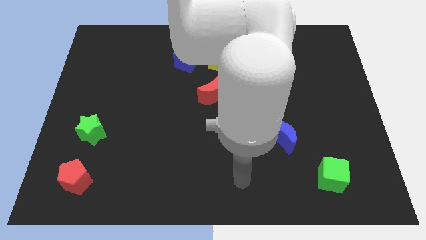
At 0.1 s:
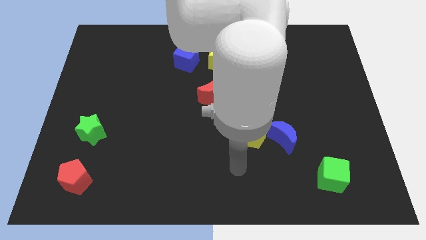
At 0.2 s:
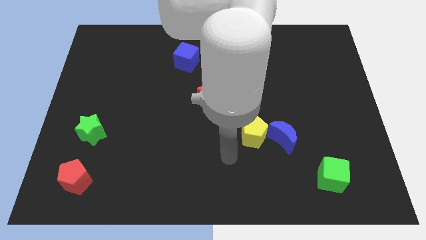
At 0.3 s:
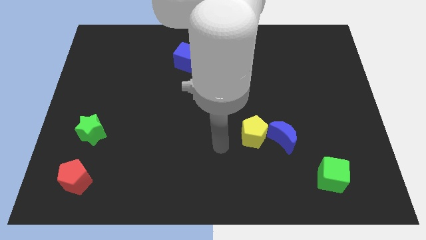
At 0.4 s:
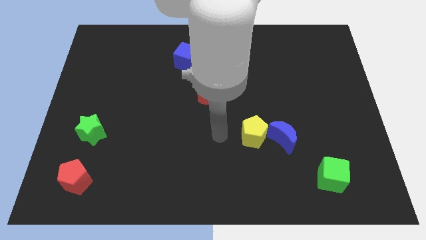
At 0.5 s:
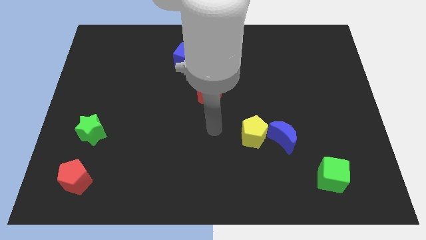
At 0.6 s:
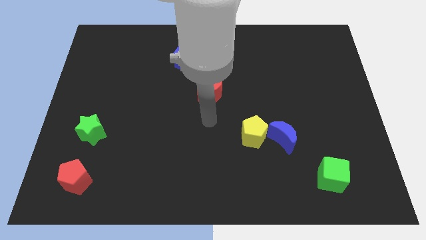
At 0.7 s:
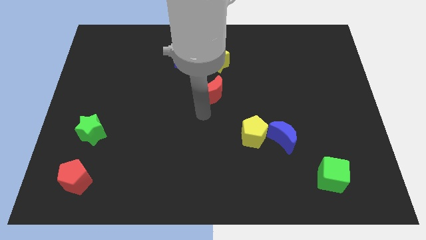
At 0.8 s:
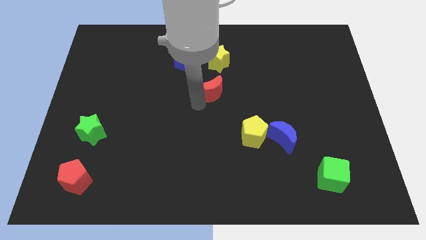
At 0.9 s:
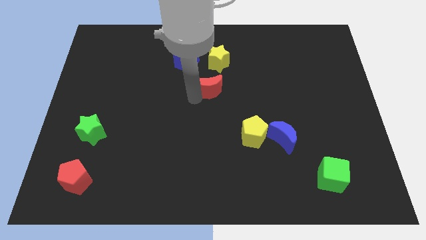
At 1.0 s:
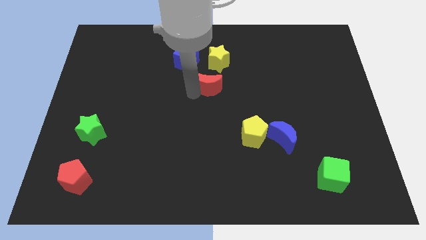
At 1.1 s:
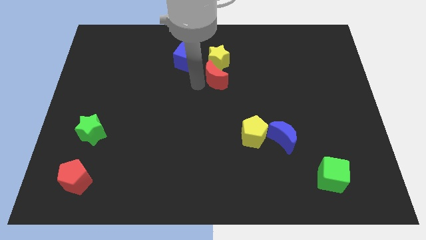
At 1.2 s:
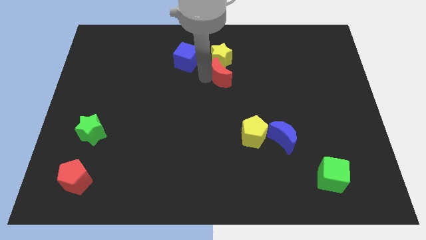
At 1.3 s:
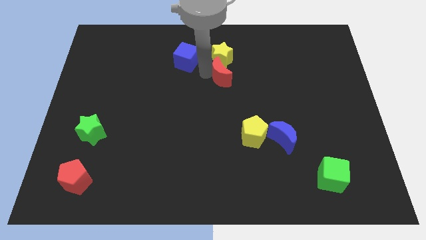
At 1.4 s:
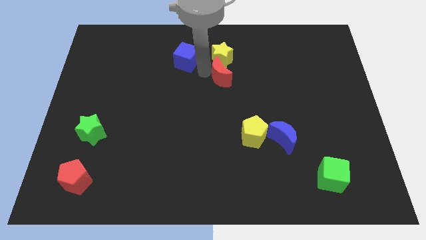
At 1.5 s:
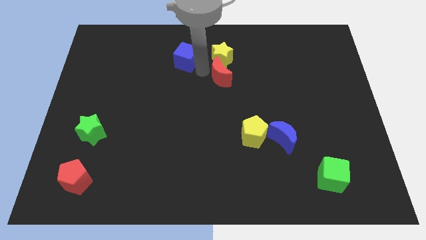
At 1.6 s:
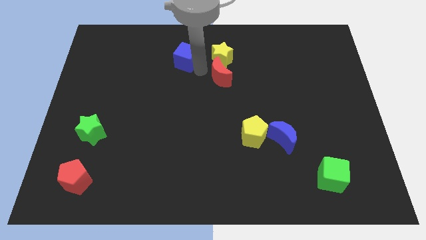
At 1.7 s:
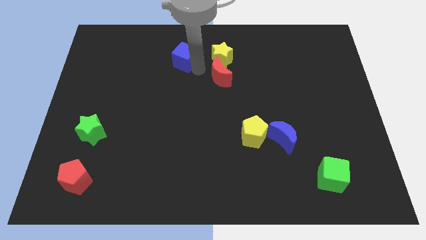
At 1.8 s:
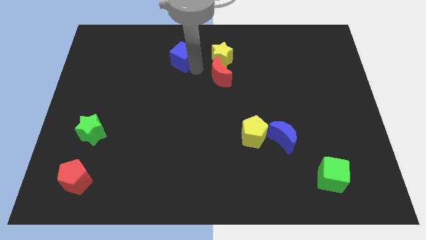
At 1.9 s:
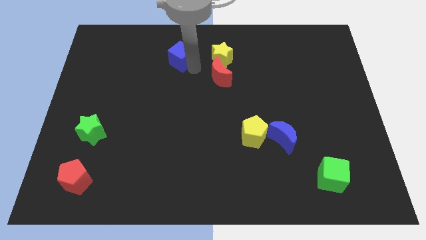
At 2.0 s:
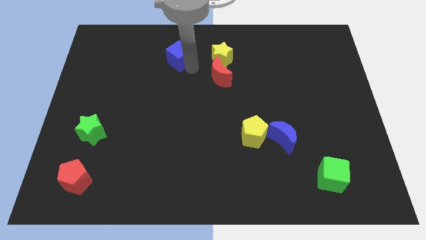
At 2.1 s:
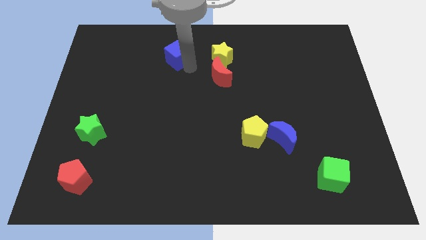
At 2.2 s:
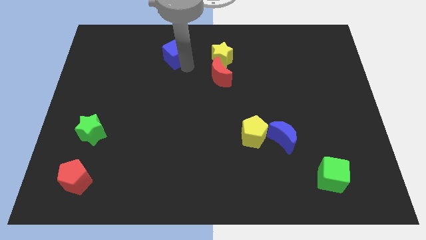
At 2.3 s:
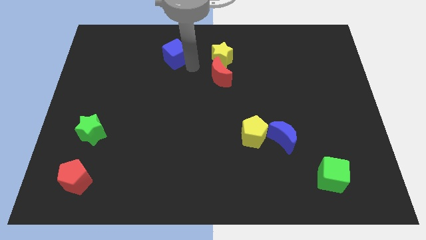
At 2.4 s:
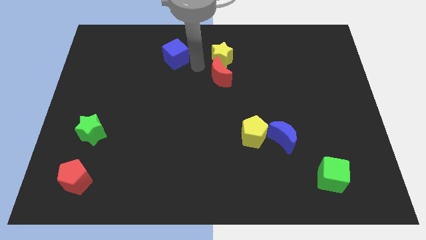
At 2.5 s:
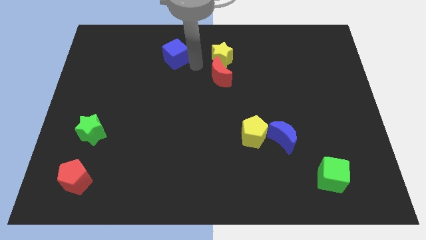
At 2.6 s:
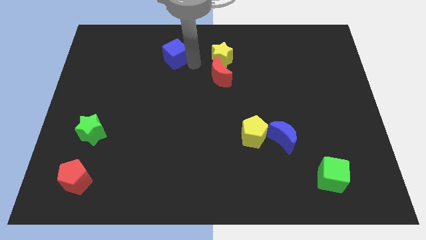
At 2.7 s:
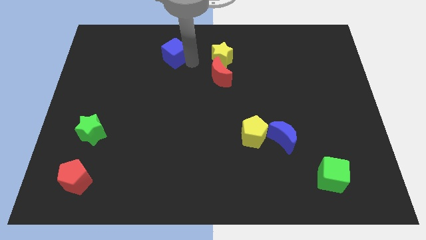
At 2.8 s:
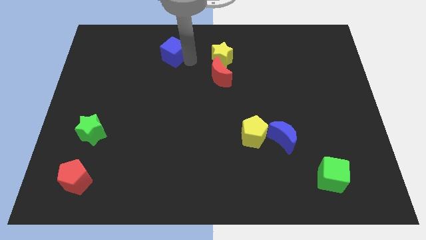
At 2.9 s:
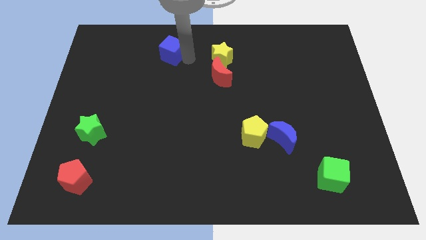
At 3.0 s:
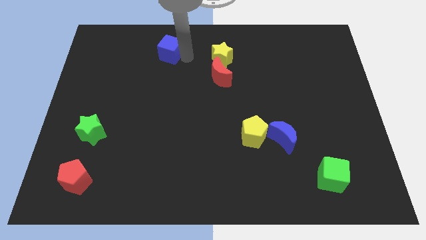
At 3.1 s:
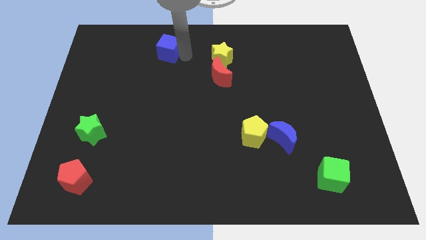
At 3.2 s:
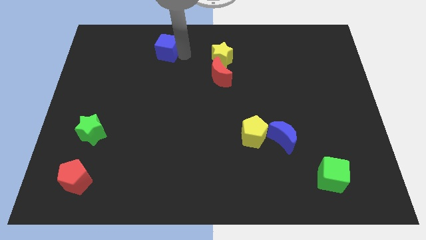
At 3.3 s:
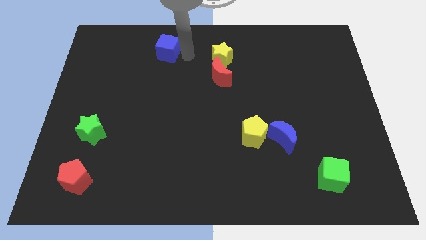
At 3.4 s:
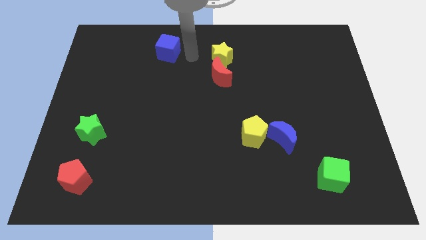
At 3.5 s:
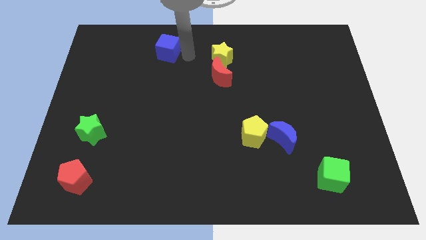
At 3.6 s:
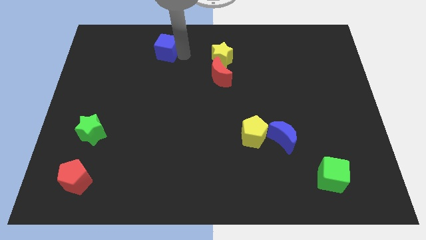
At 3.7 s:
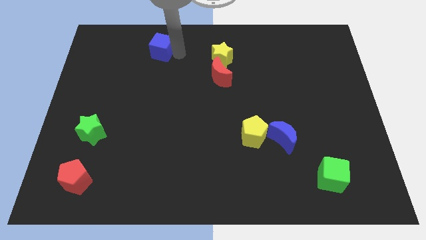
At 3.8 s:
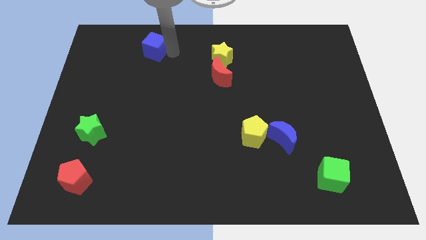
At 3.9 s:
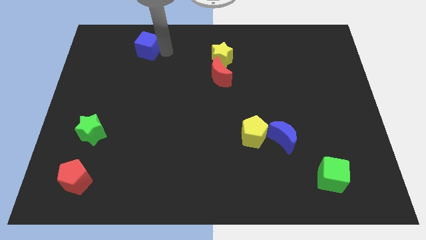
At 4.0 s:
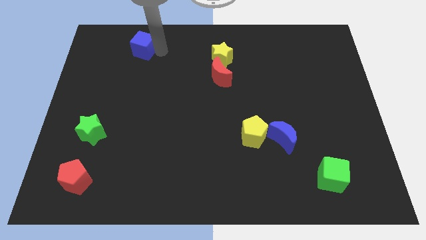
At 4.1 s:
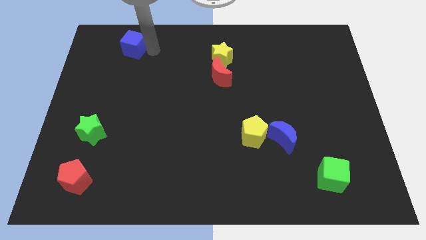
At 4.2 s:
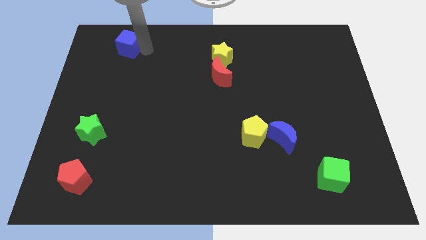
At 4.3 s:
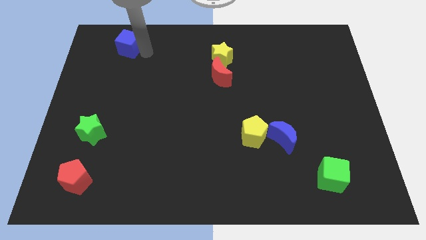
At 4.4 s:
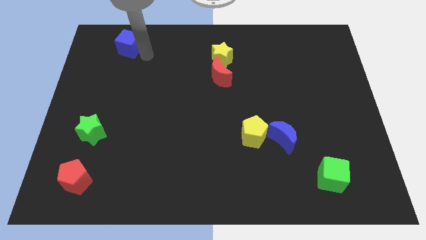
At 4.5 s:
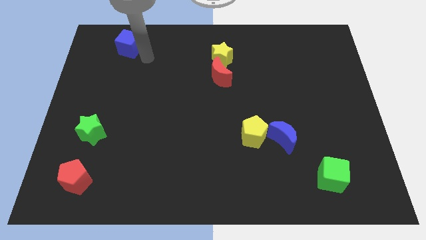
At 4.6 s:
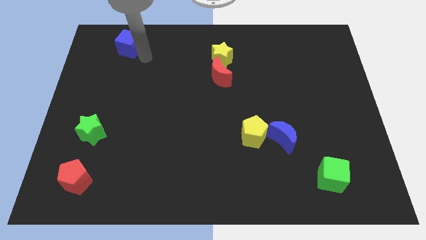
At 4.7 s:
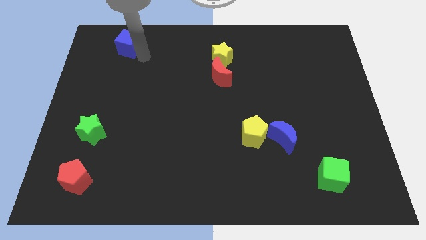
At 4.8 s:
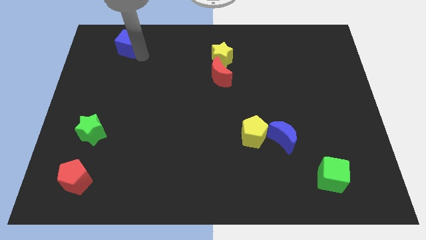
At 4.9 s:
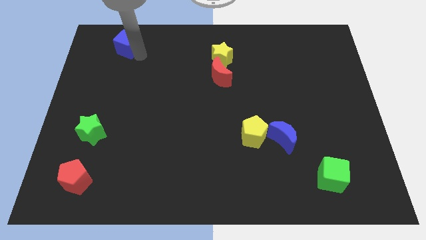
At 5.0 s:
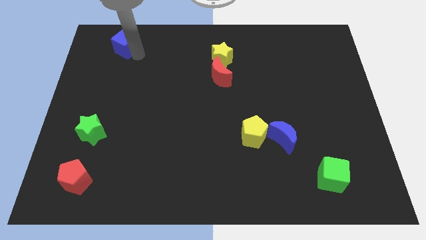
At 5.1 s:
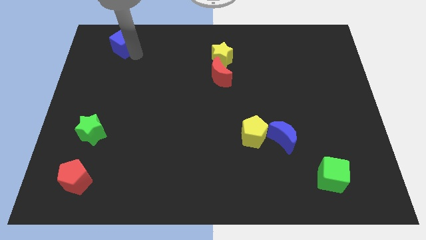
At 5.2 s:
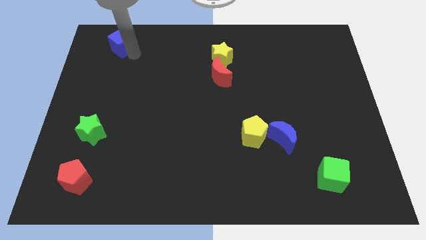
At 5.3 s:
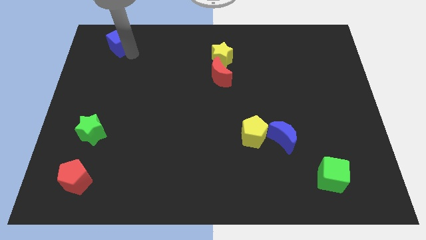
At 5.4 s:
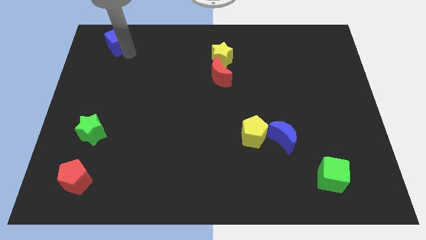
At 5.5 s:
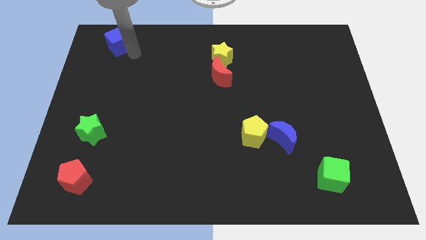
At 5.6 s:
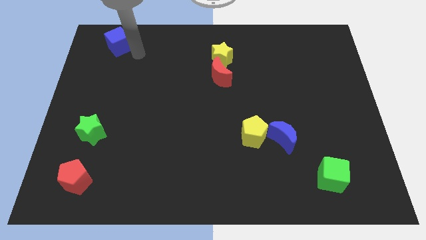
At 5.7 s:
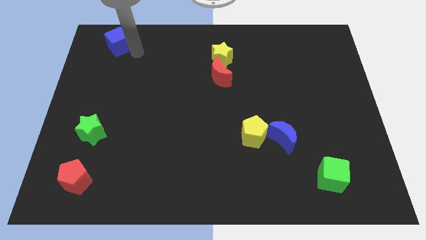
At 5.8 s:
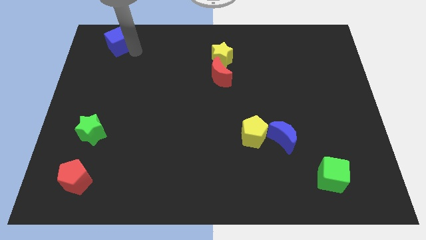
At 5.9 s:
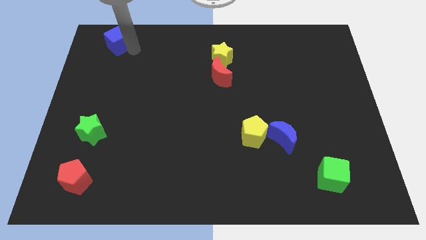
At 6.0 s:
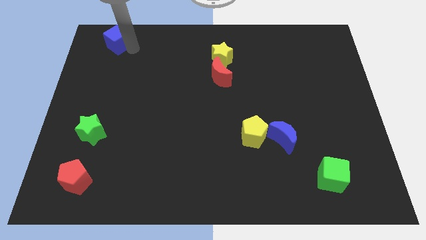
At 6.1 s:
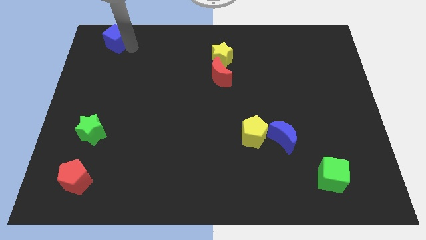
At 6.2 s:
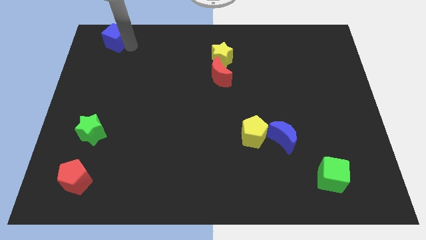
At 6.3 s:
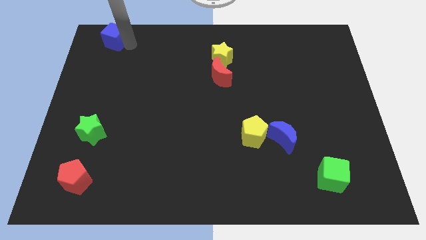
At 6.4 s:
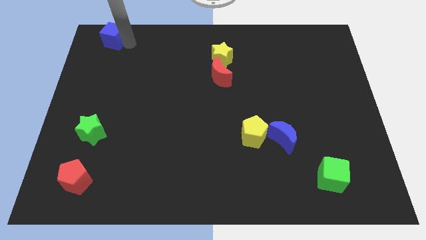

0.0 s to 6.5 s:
push the blue cube to the upper left corner

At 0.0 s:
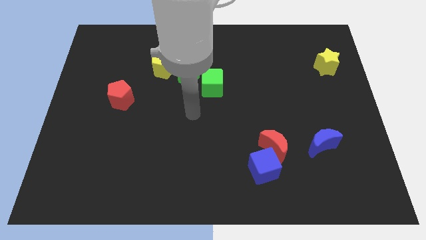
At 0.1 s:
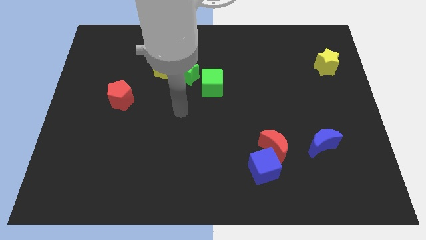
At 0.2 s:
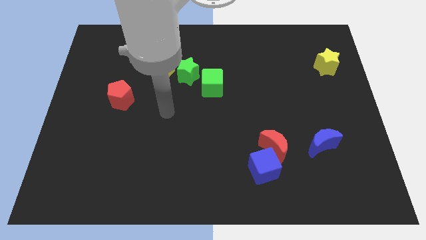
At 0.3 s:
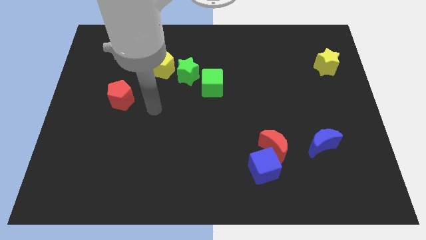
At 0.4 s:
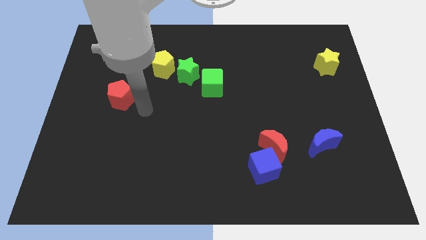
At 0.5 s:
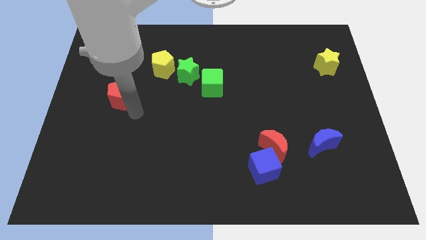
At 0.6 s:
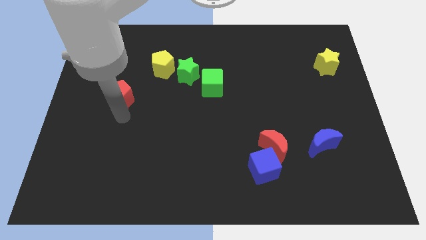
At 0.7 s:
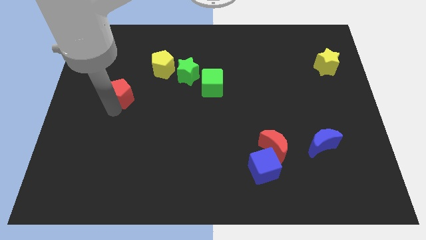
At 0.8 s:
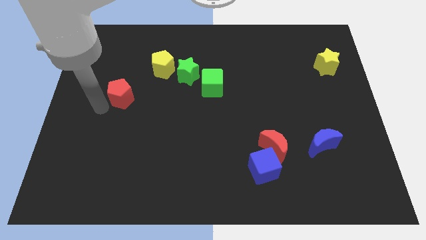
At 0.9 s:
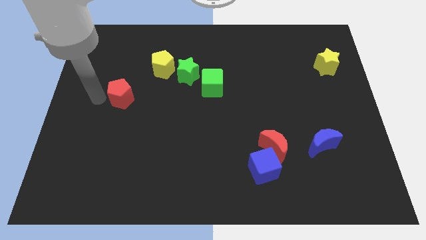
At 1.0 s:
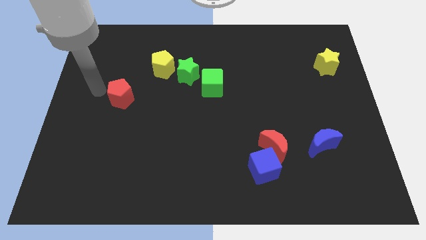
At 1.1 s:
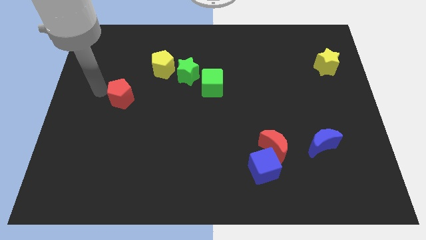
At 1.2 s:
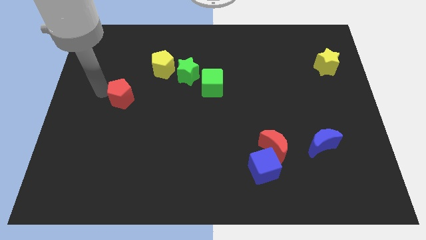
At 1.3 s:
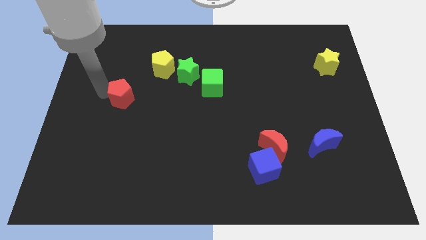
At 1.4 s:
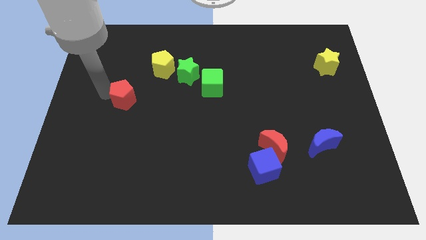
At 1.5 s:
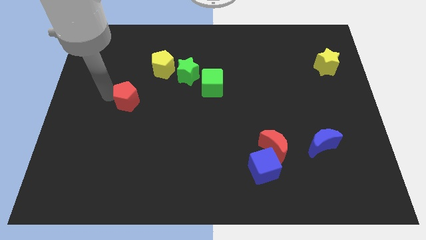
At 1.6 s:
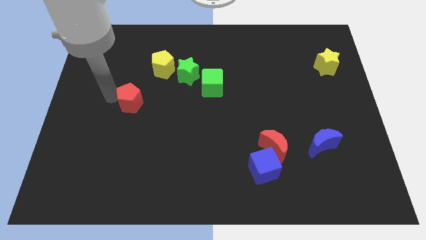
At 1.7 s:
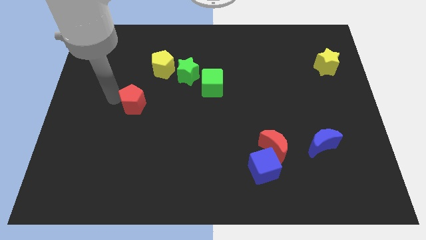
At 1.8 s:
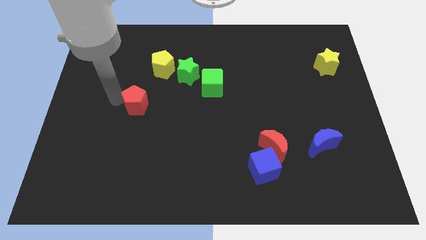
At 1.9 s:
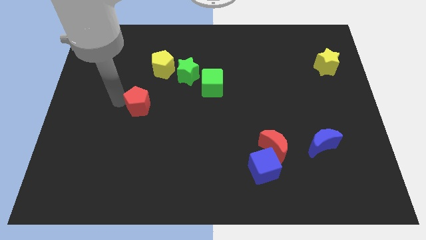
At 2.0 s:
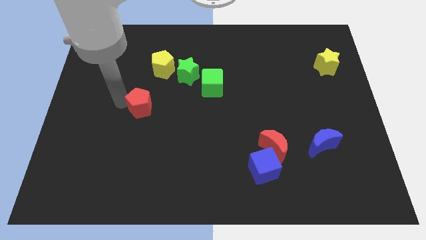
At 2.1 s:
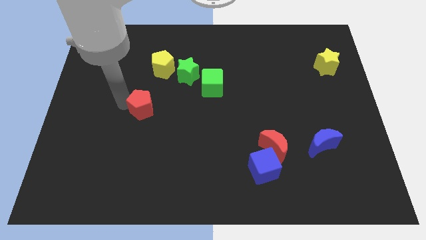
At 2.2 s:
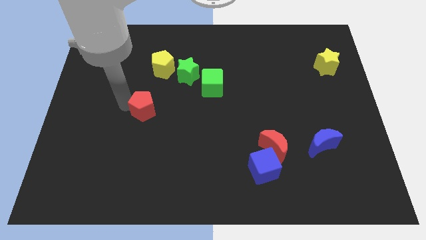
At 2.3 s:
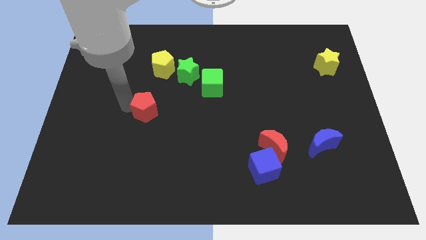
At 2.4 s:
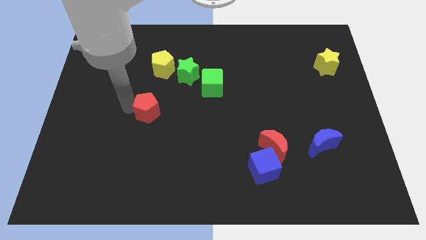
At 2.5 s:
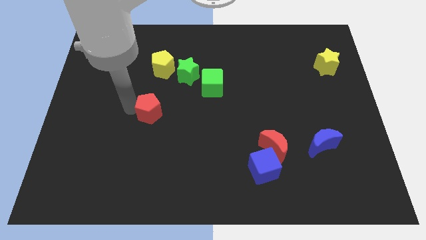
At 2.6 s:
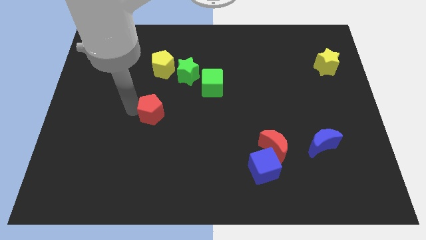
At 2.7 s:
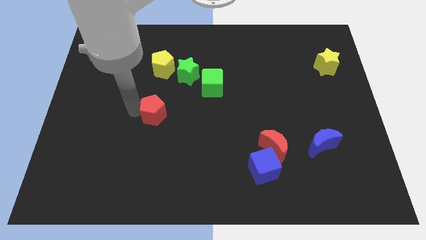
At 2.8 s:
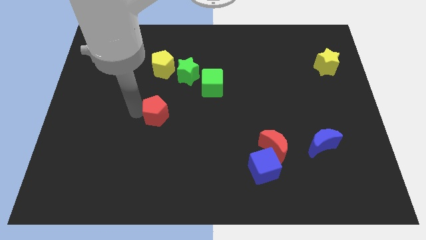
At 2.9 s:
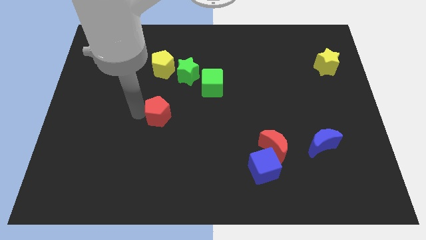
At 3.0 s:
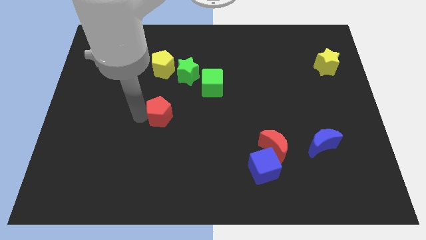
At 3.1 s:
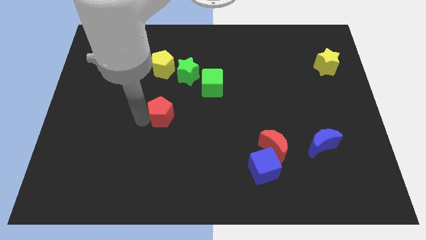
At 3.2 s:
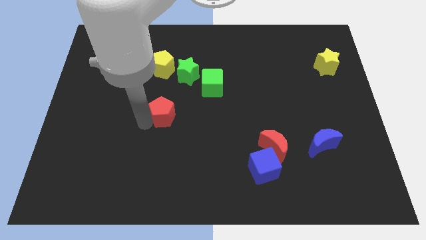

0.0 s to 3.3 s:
put the red pentagon to the middle of the board
